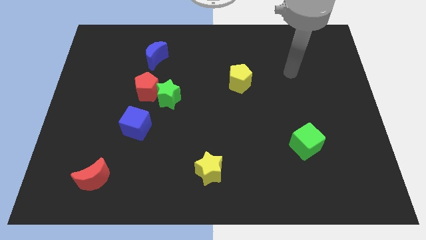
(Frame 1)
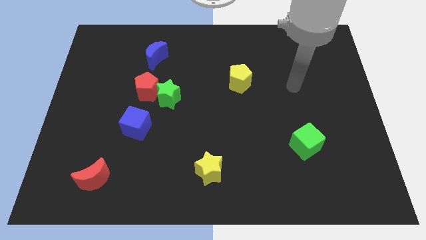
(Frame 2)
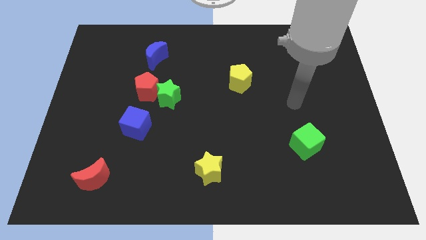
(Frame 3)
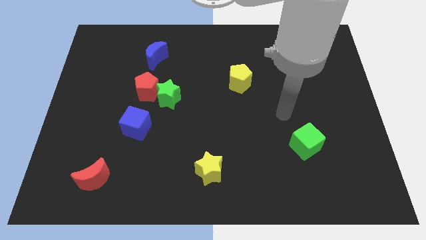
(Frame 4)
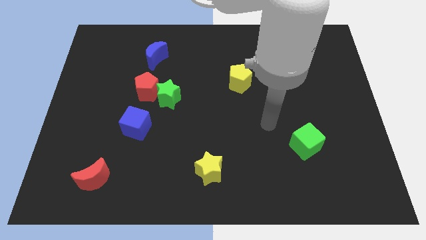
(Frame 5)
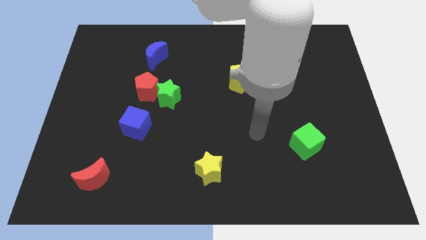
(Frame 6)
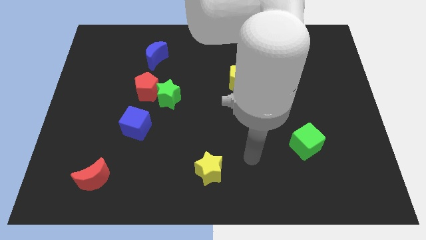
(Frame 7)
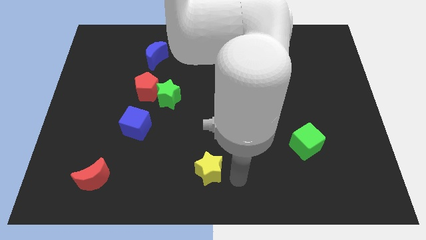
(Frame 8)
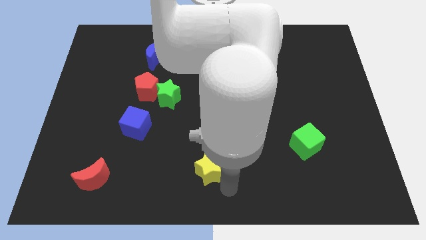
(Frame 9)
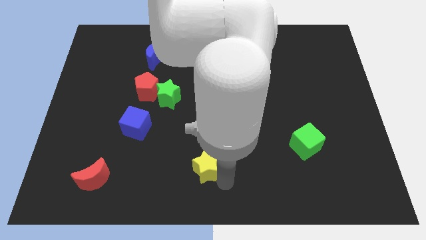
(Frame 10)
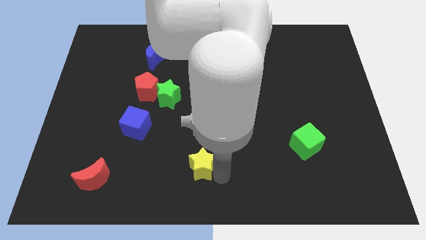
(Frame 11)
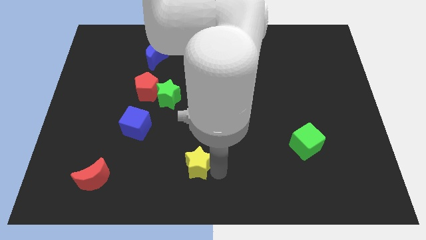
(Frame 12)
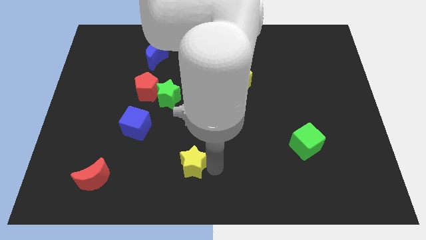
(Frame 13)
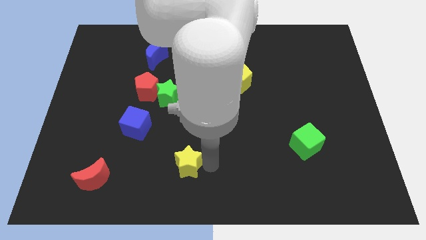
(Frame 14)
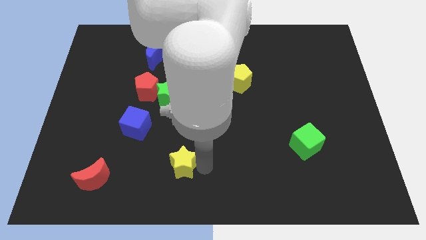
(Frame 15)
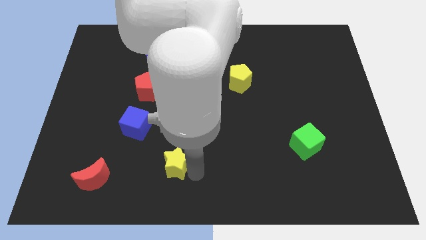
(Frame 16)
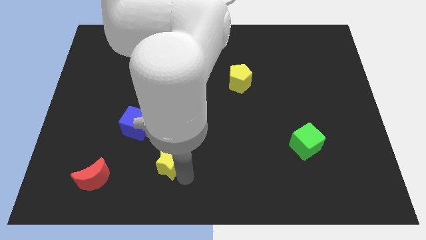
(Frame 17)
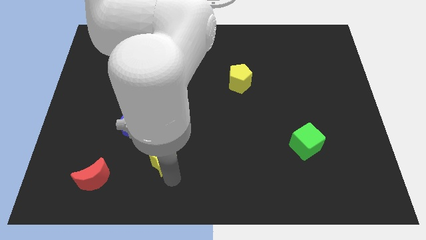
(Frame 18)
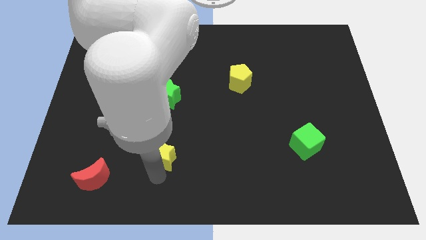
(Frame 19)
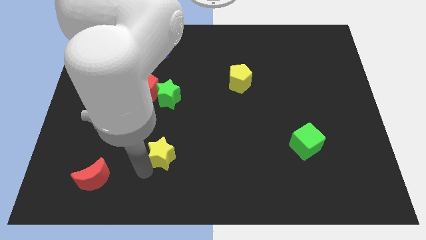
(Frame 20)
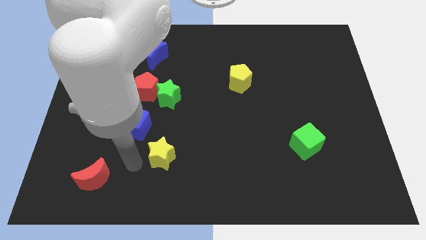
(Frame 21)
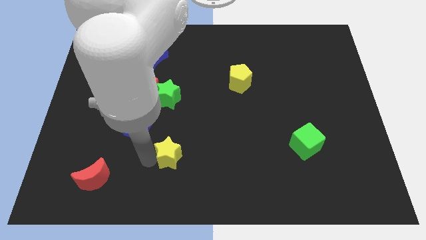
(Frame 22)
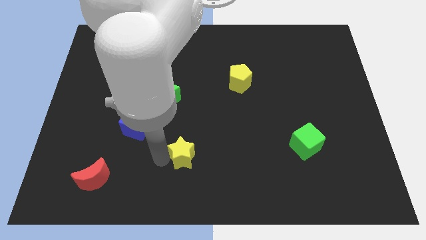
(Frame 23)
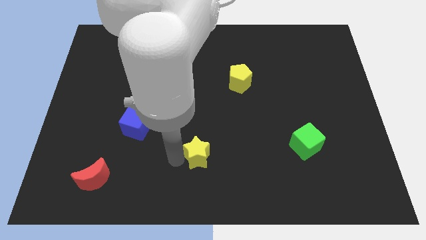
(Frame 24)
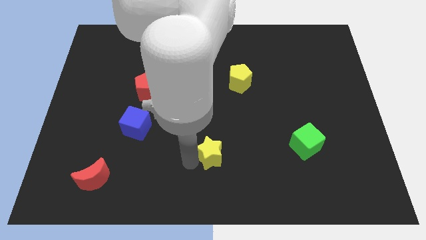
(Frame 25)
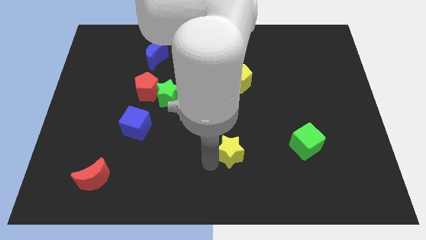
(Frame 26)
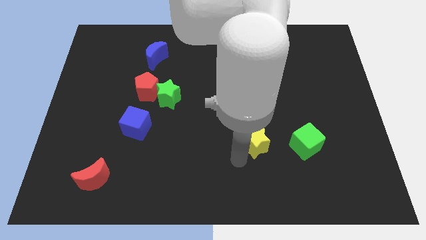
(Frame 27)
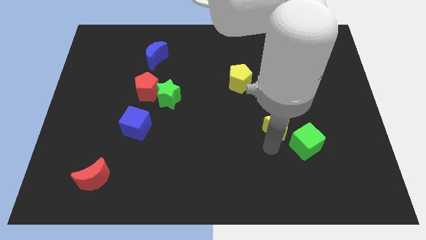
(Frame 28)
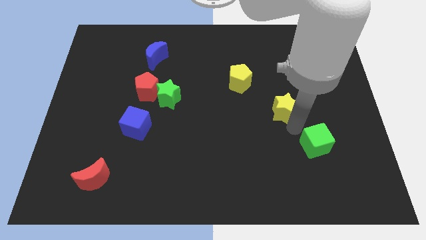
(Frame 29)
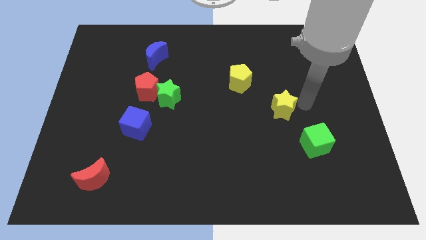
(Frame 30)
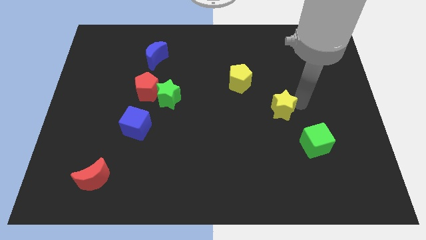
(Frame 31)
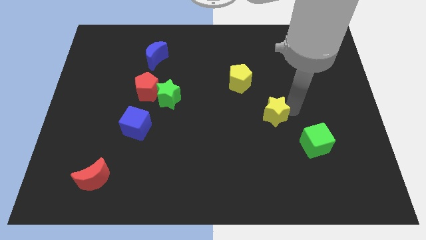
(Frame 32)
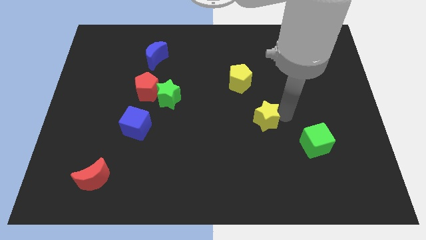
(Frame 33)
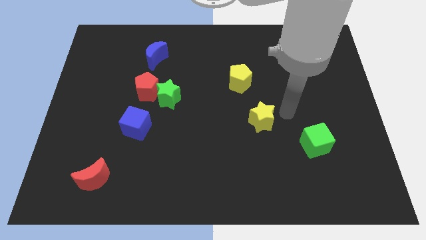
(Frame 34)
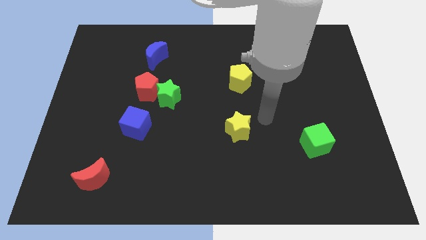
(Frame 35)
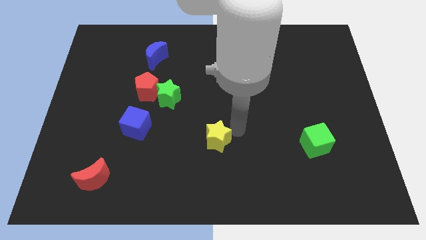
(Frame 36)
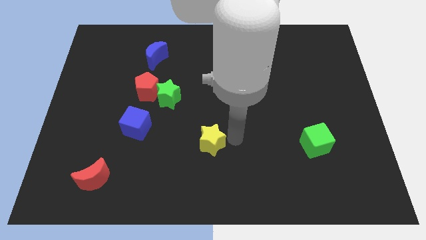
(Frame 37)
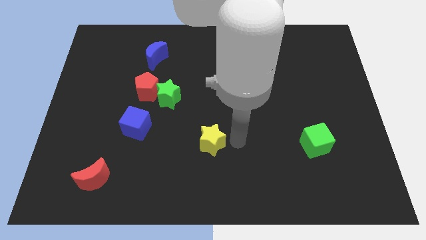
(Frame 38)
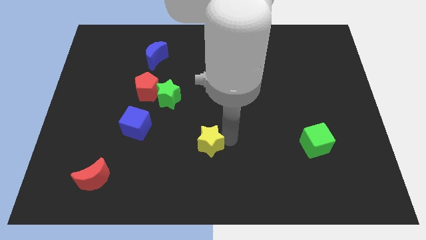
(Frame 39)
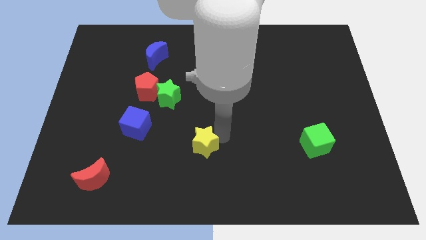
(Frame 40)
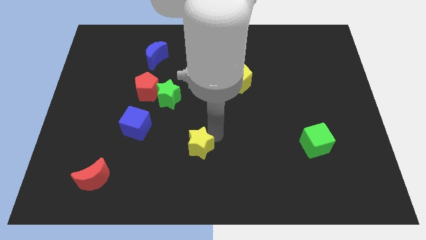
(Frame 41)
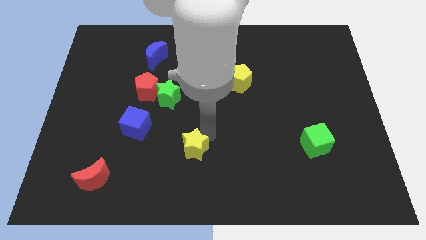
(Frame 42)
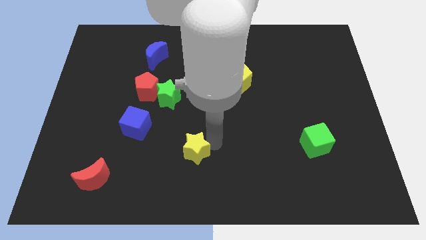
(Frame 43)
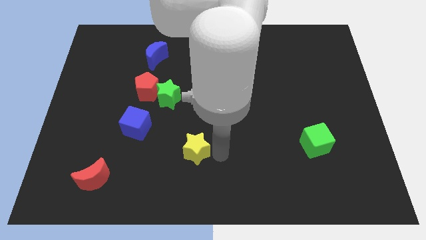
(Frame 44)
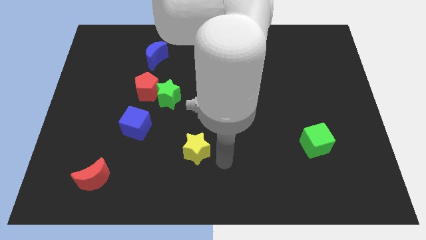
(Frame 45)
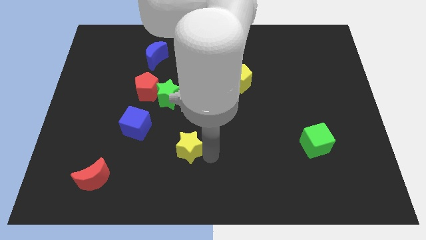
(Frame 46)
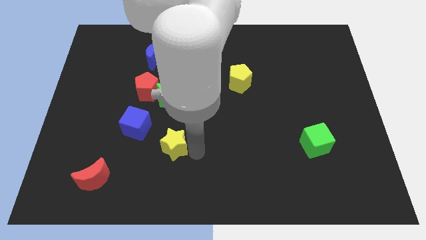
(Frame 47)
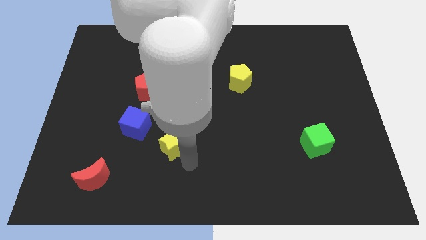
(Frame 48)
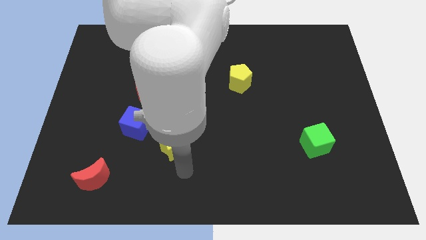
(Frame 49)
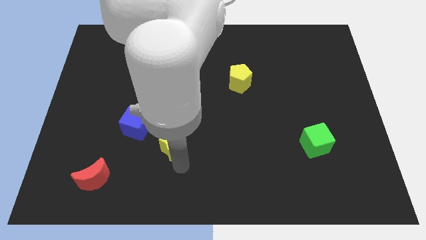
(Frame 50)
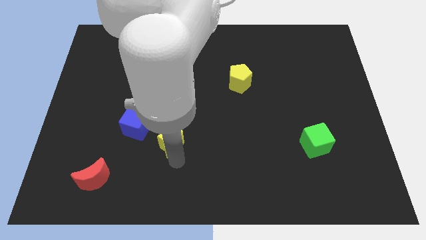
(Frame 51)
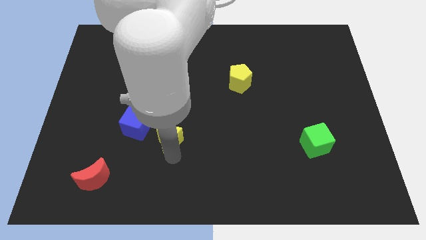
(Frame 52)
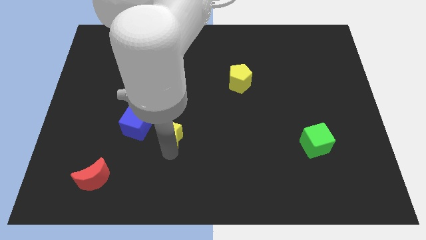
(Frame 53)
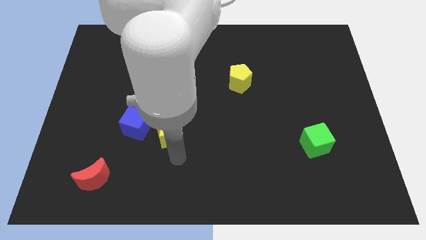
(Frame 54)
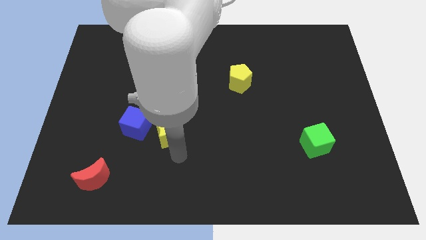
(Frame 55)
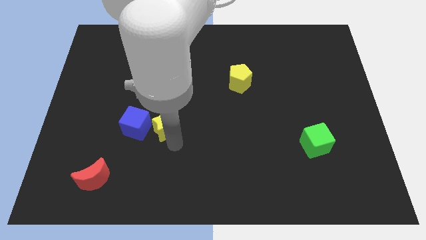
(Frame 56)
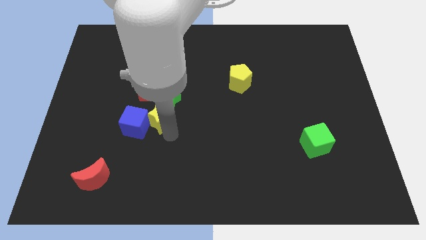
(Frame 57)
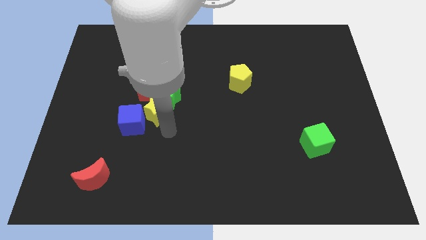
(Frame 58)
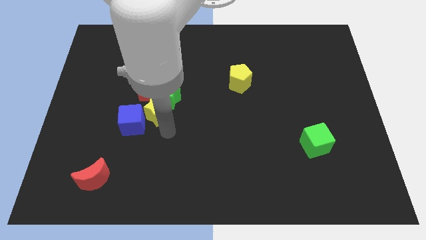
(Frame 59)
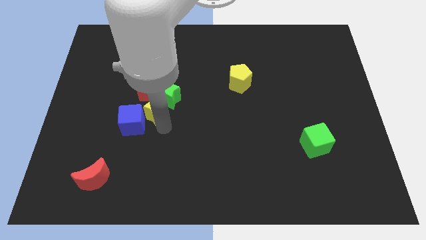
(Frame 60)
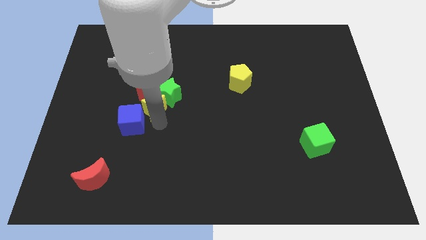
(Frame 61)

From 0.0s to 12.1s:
put the yellow star towards the red pentagon
